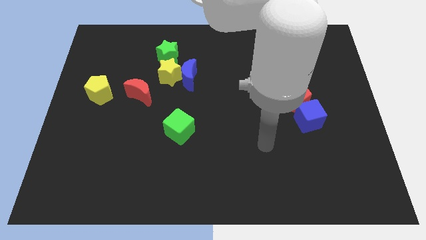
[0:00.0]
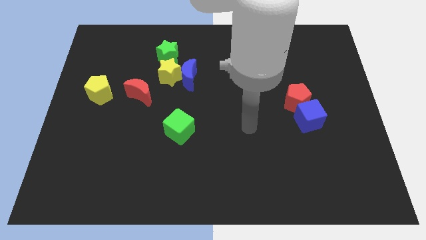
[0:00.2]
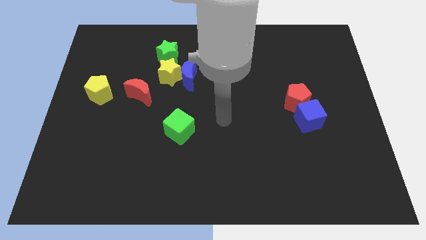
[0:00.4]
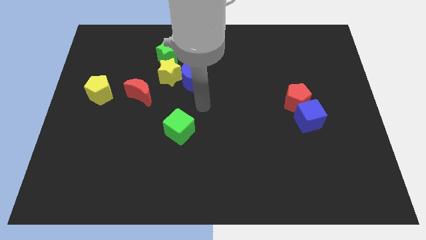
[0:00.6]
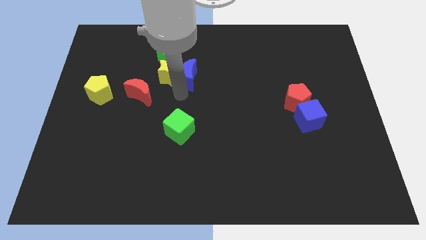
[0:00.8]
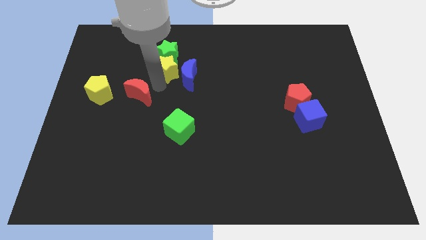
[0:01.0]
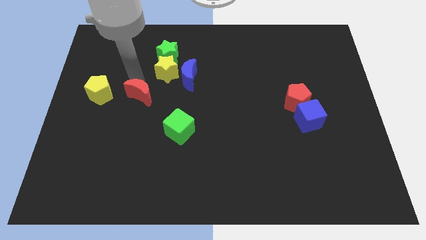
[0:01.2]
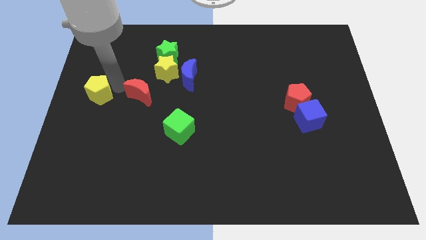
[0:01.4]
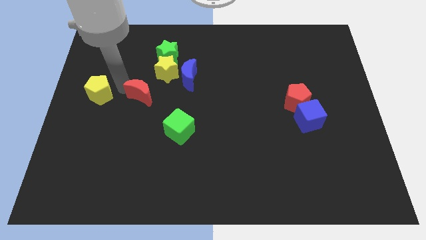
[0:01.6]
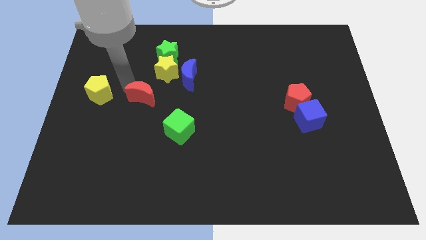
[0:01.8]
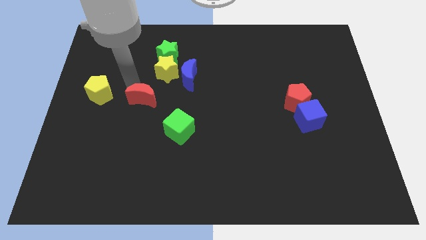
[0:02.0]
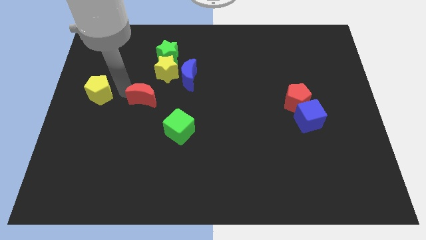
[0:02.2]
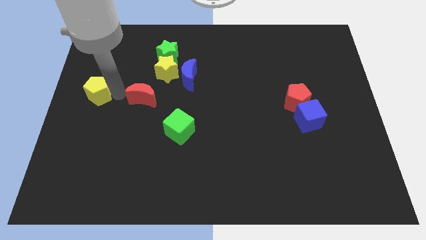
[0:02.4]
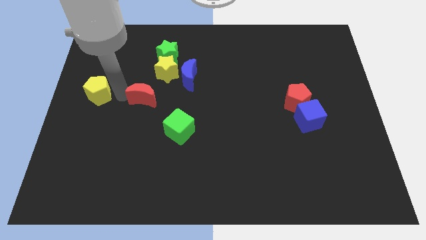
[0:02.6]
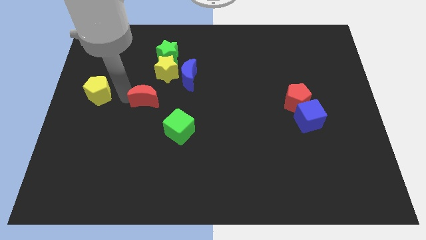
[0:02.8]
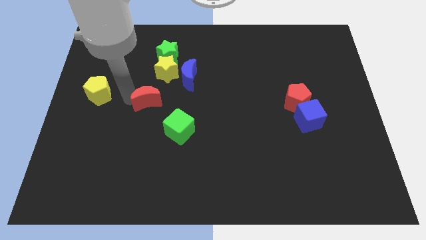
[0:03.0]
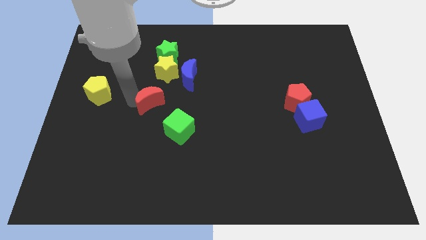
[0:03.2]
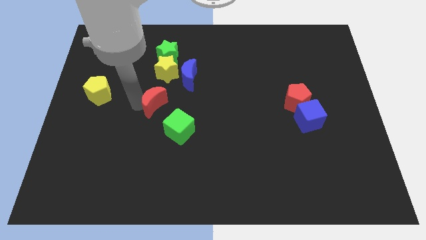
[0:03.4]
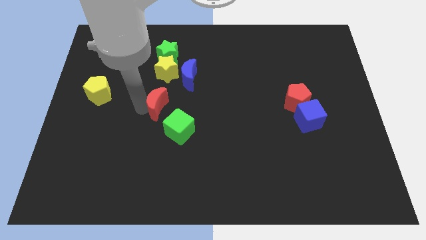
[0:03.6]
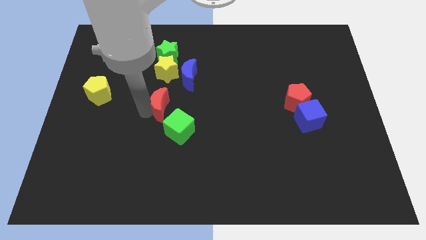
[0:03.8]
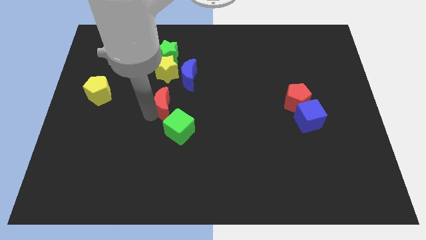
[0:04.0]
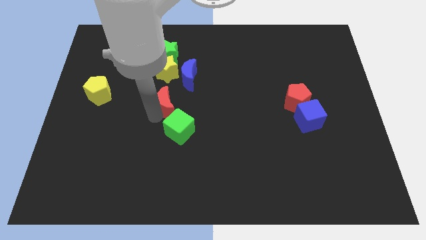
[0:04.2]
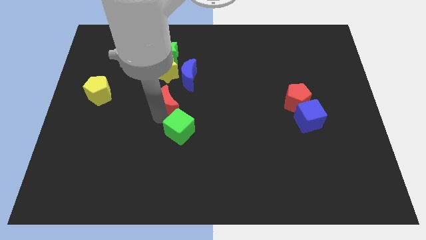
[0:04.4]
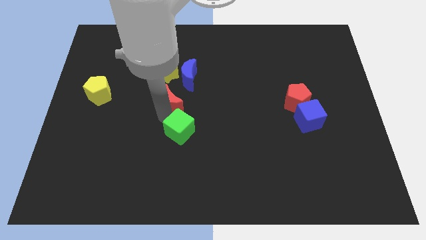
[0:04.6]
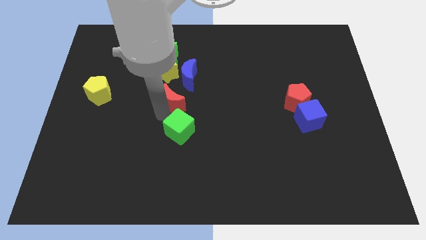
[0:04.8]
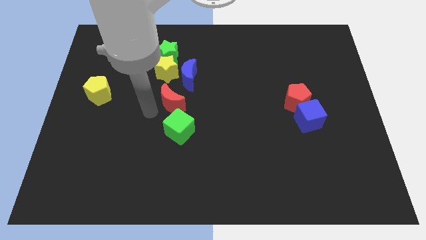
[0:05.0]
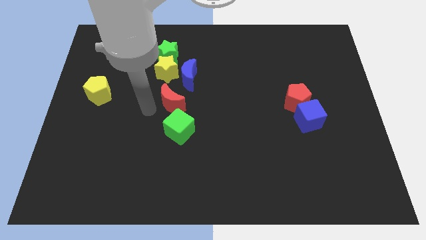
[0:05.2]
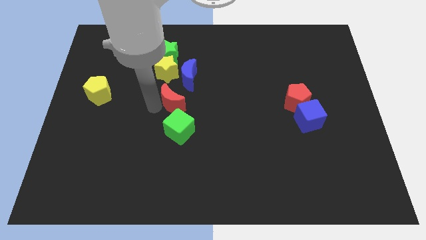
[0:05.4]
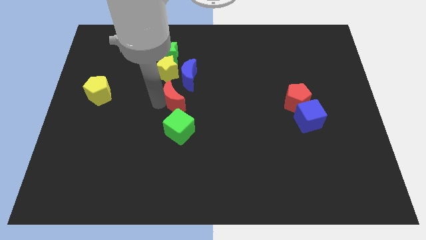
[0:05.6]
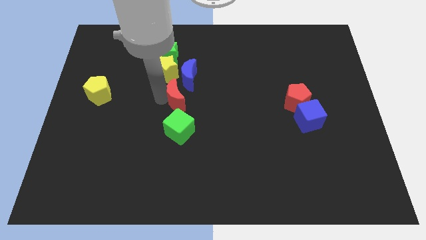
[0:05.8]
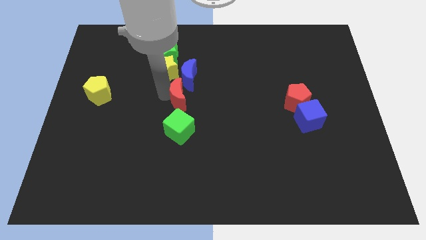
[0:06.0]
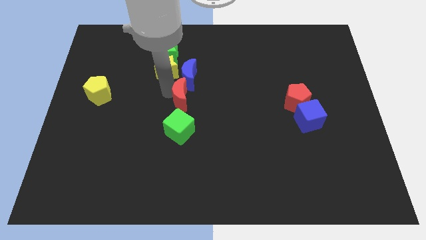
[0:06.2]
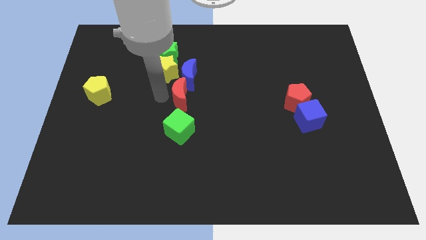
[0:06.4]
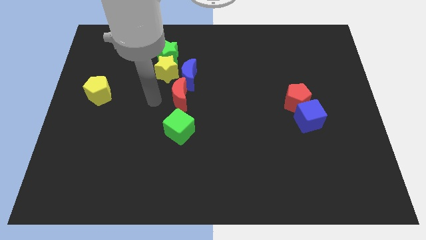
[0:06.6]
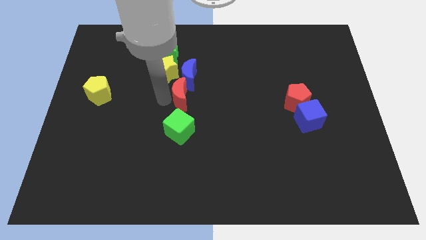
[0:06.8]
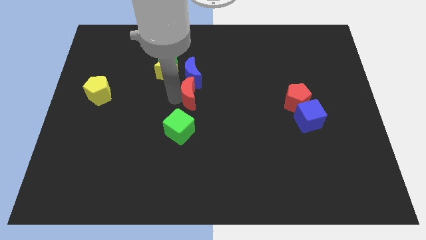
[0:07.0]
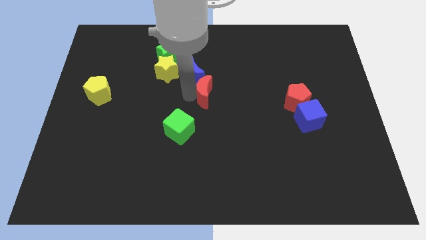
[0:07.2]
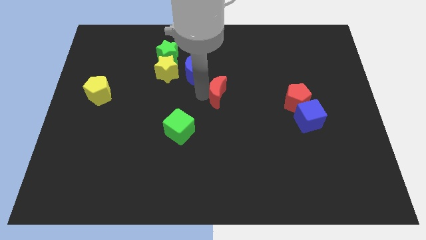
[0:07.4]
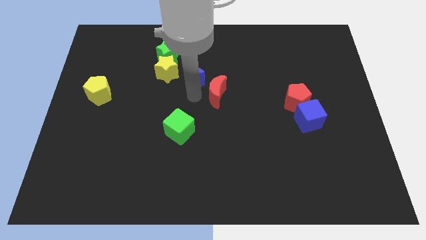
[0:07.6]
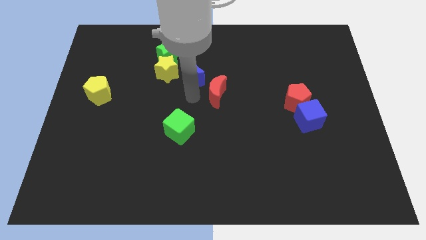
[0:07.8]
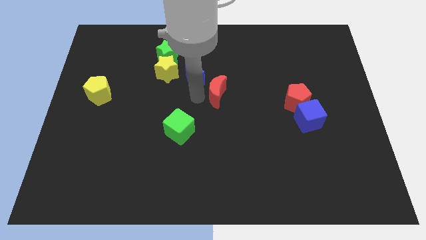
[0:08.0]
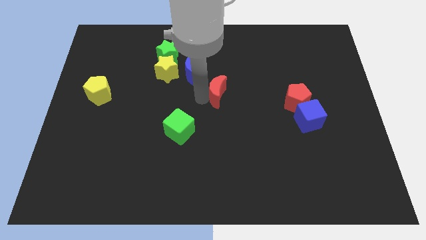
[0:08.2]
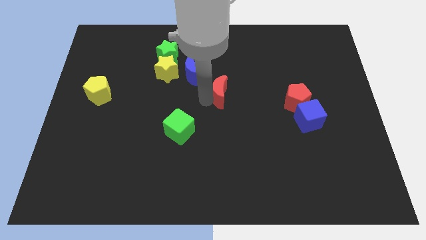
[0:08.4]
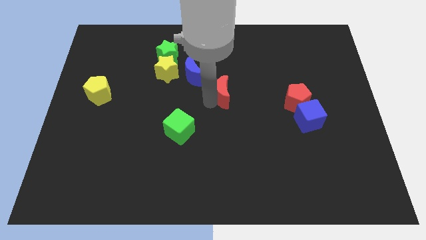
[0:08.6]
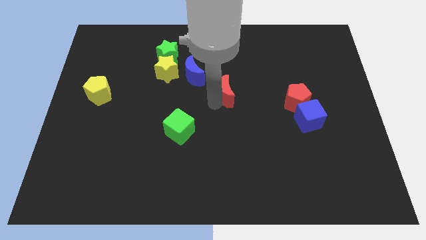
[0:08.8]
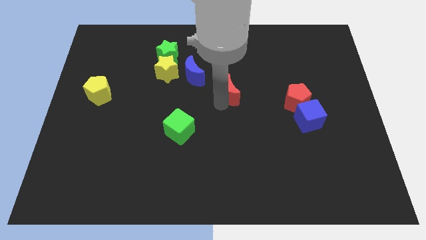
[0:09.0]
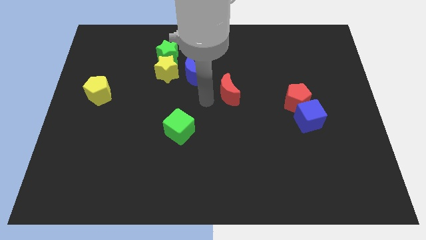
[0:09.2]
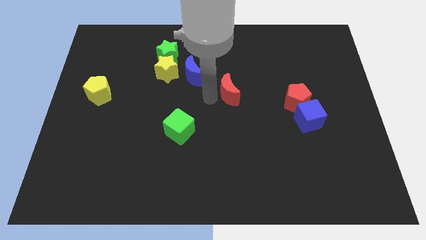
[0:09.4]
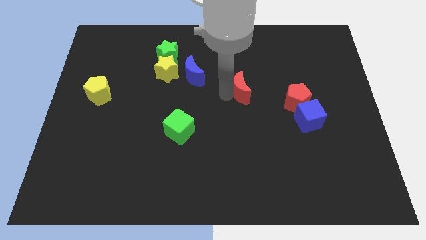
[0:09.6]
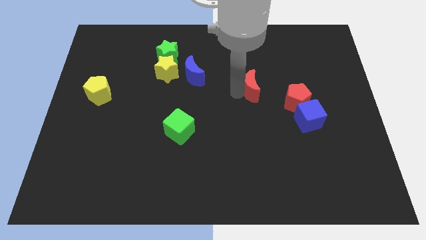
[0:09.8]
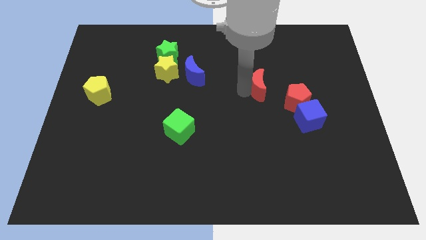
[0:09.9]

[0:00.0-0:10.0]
put the red moon diagonally up and to the left of the red pentagon

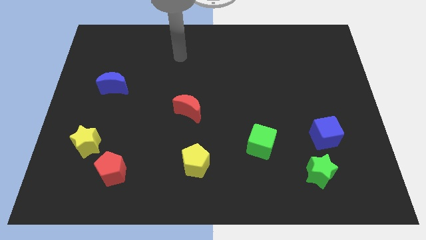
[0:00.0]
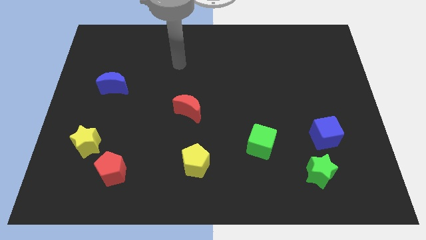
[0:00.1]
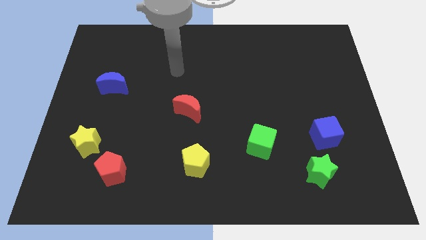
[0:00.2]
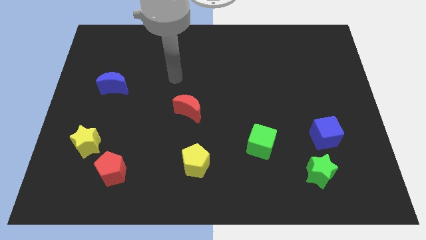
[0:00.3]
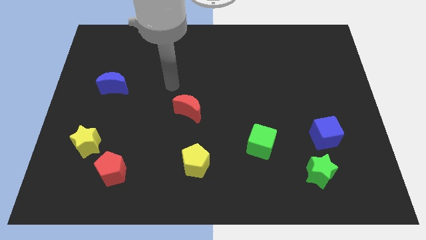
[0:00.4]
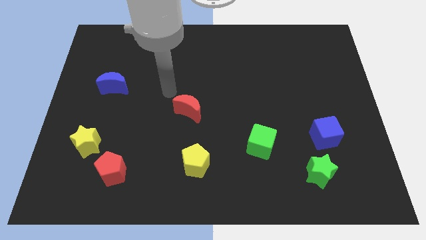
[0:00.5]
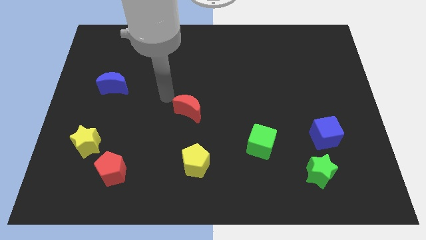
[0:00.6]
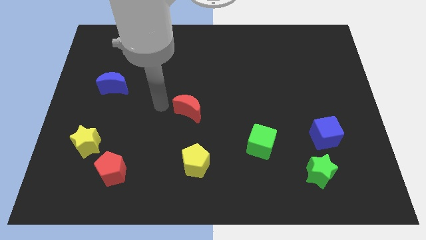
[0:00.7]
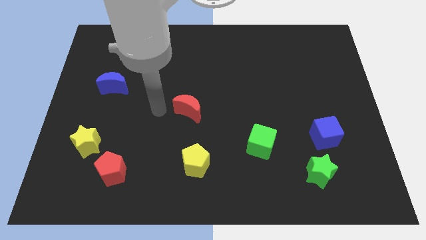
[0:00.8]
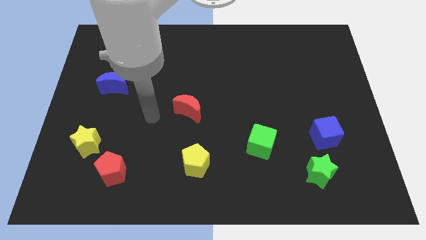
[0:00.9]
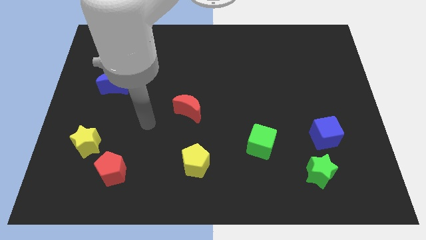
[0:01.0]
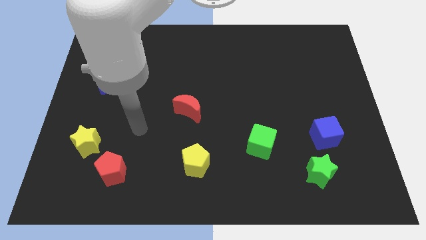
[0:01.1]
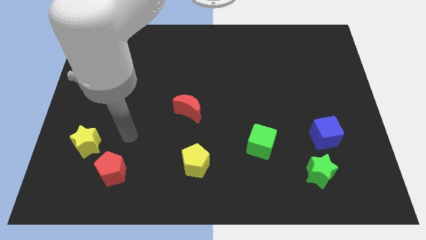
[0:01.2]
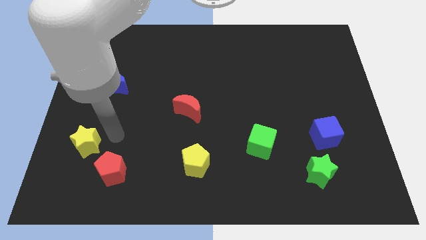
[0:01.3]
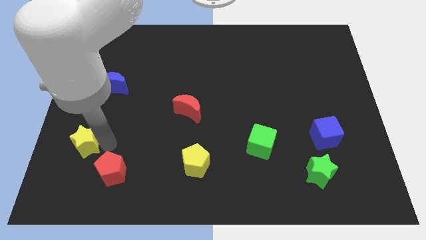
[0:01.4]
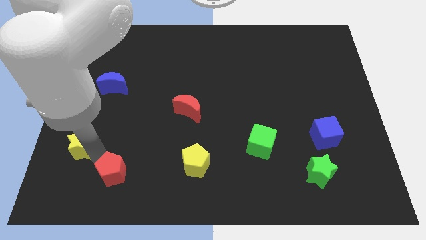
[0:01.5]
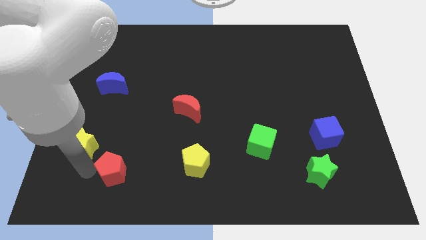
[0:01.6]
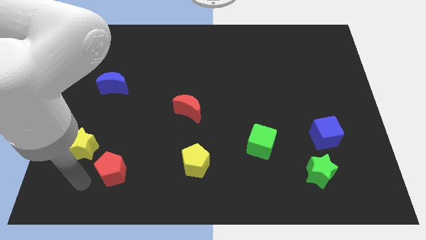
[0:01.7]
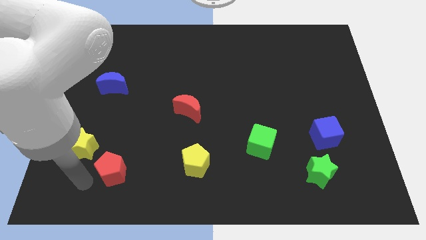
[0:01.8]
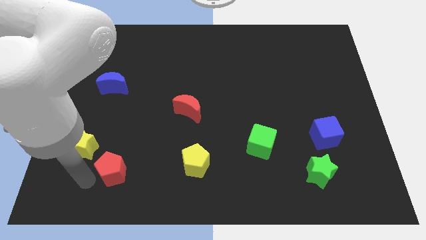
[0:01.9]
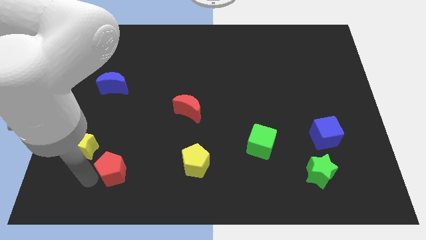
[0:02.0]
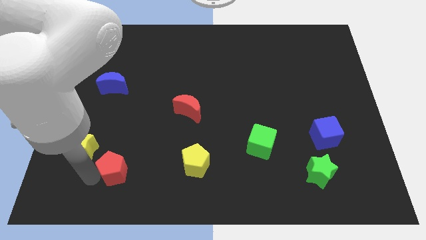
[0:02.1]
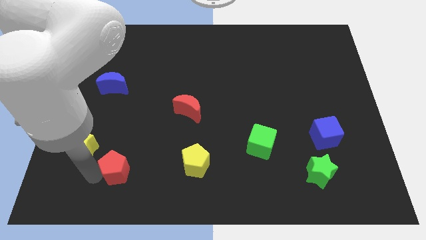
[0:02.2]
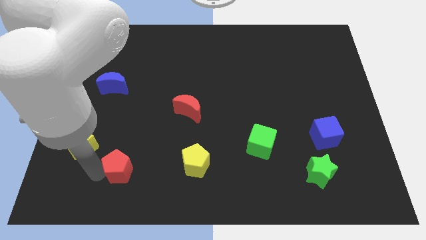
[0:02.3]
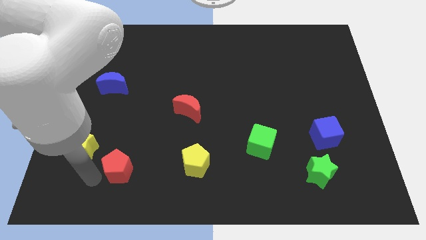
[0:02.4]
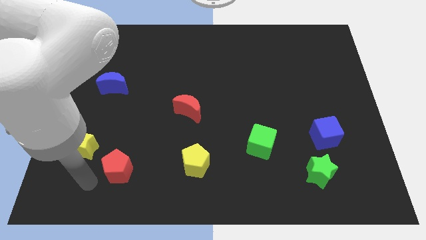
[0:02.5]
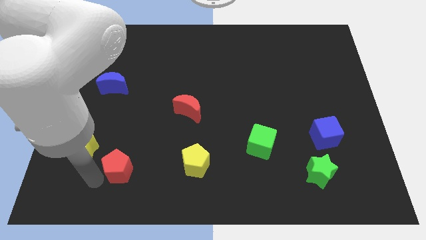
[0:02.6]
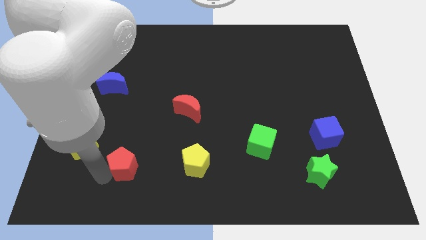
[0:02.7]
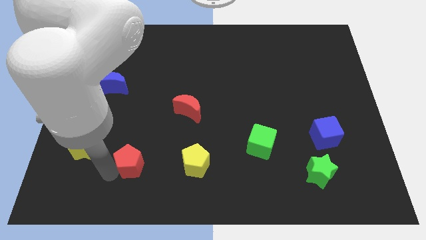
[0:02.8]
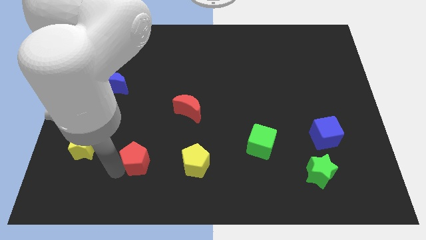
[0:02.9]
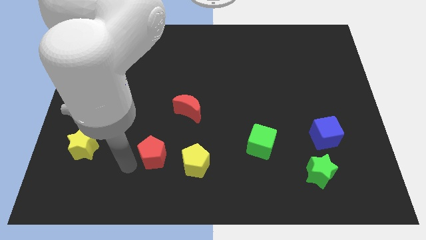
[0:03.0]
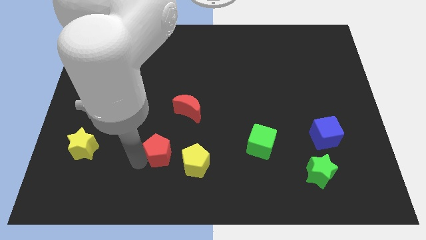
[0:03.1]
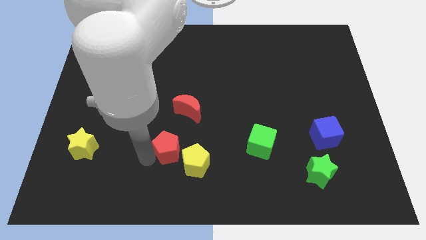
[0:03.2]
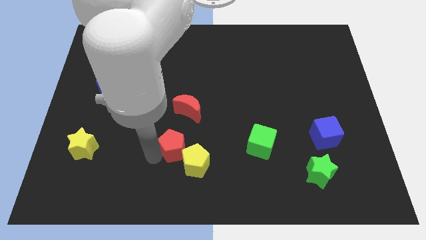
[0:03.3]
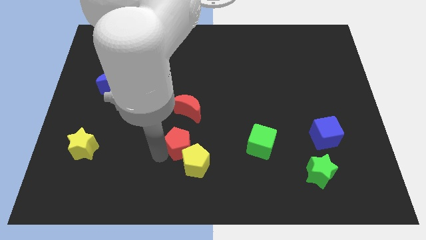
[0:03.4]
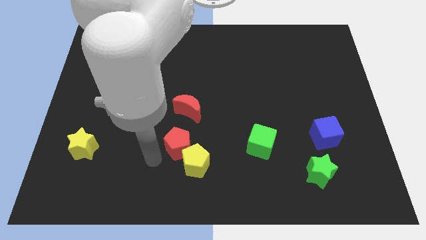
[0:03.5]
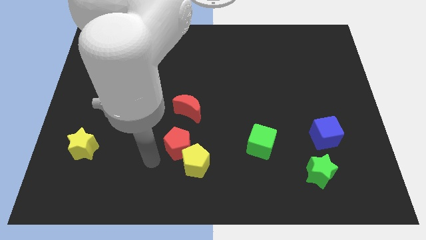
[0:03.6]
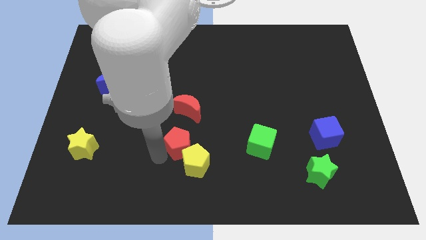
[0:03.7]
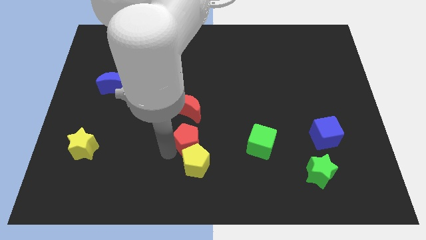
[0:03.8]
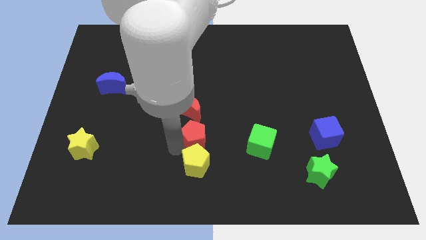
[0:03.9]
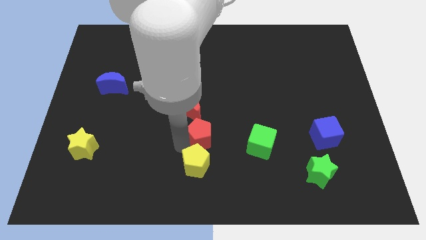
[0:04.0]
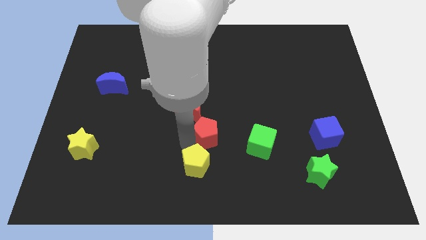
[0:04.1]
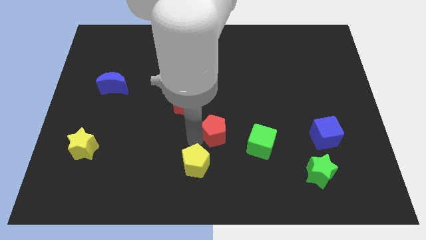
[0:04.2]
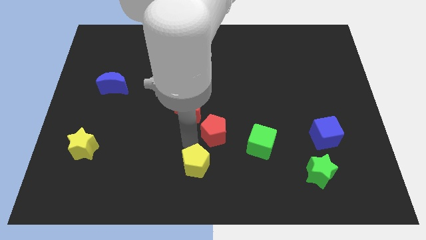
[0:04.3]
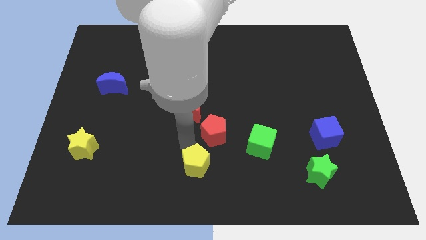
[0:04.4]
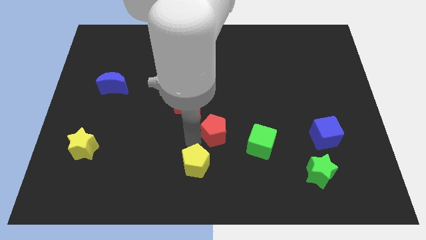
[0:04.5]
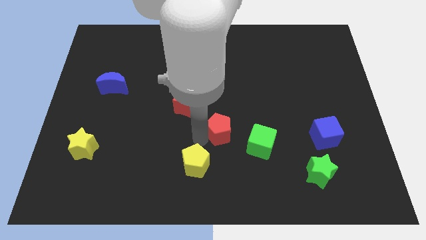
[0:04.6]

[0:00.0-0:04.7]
move the red pentagon diagonally up and to the left of the green cube
